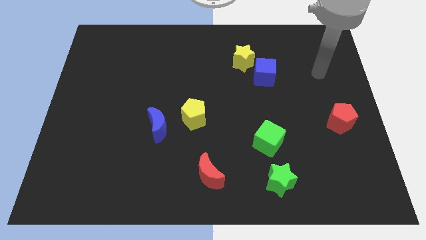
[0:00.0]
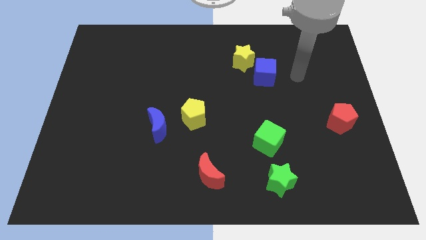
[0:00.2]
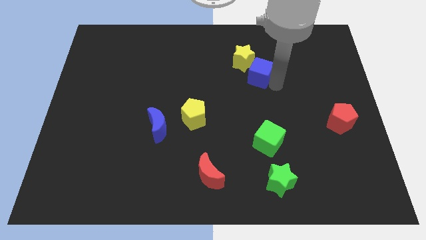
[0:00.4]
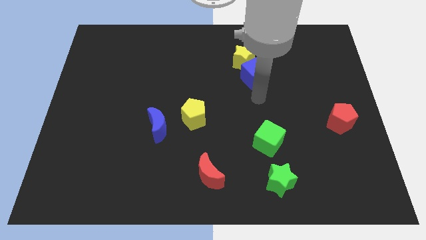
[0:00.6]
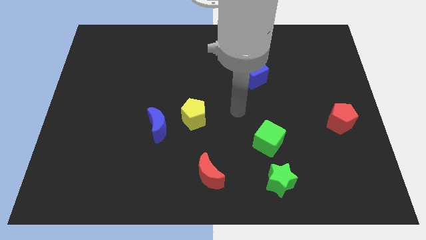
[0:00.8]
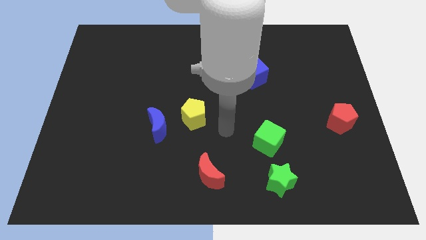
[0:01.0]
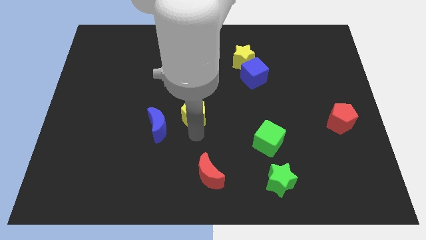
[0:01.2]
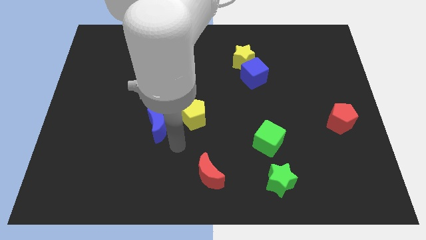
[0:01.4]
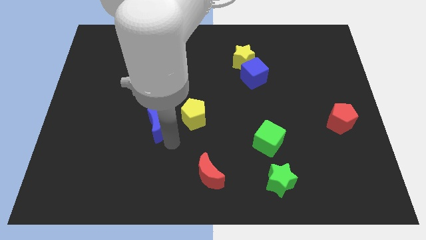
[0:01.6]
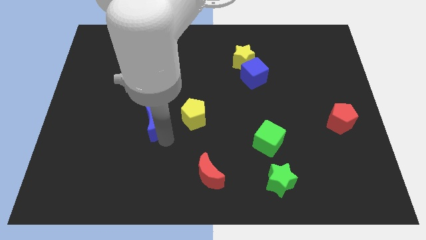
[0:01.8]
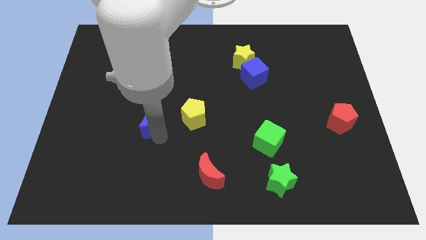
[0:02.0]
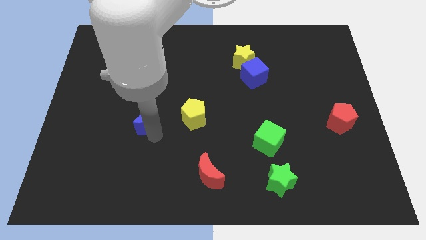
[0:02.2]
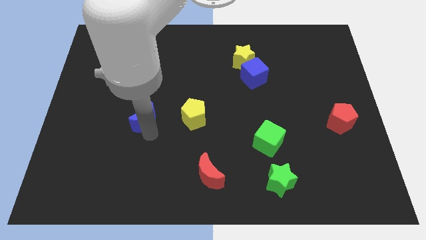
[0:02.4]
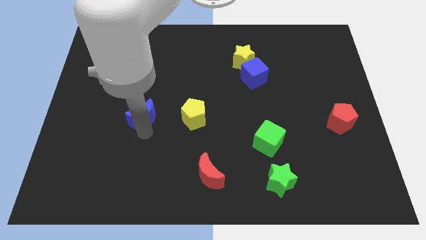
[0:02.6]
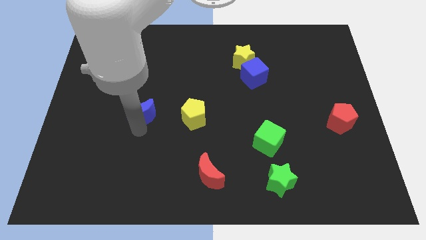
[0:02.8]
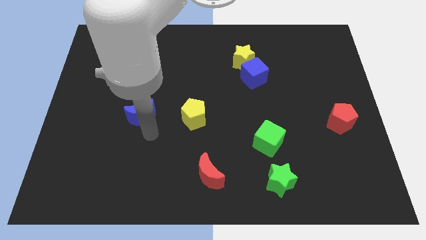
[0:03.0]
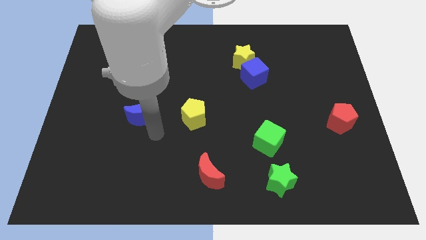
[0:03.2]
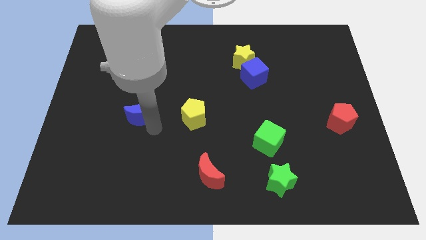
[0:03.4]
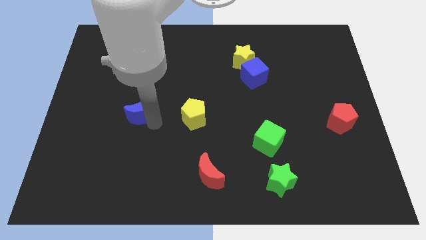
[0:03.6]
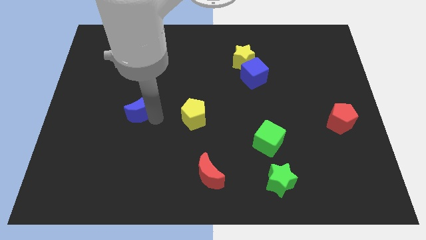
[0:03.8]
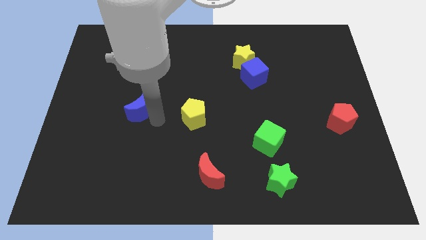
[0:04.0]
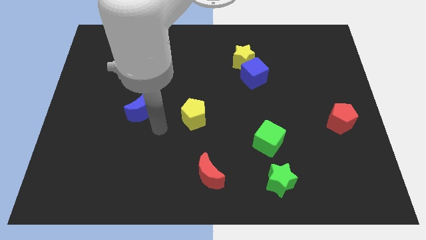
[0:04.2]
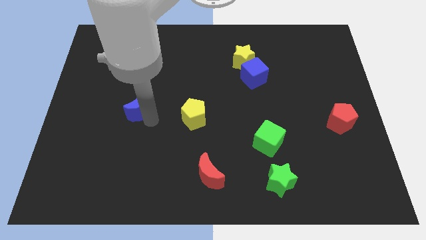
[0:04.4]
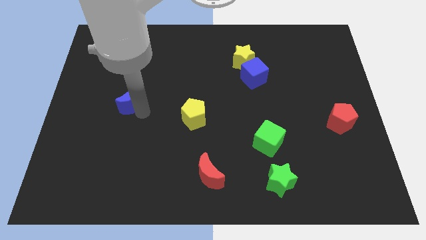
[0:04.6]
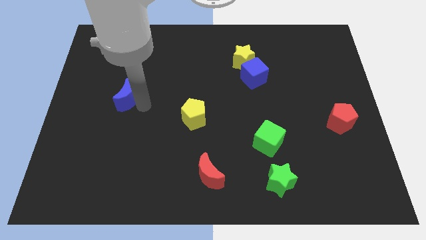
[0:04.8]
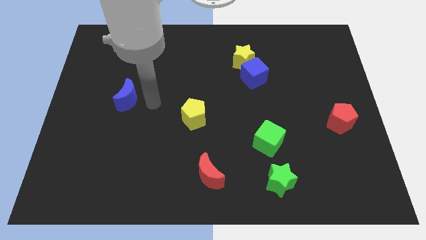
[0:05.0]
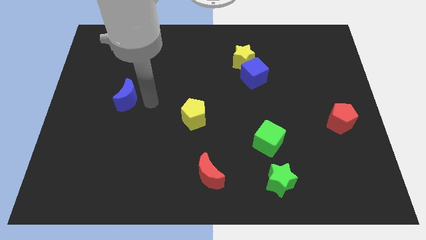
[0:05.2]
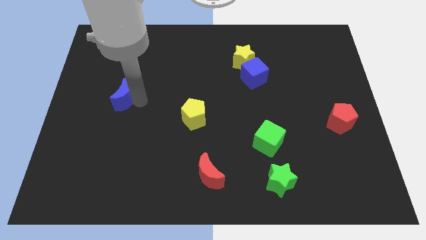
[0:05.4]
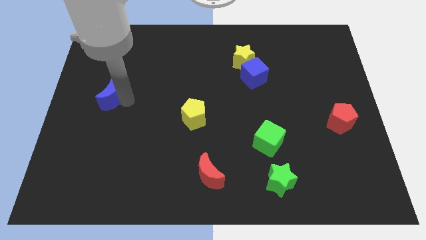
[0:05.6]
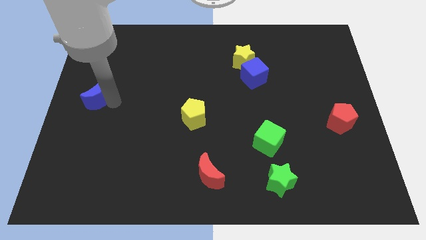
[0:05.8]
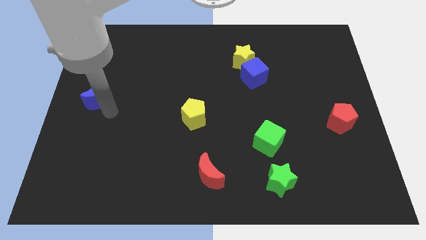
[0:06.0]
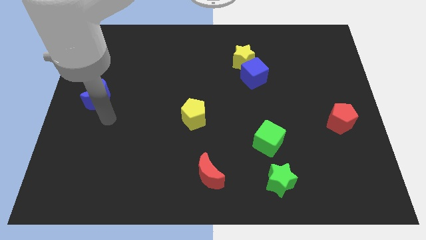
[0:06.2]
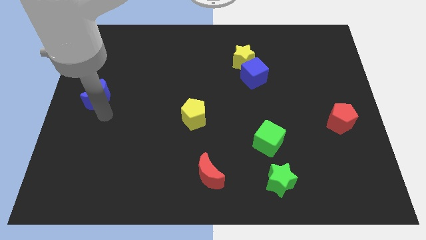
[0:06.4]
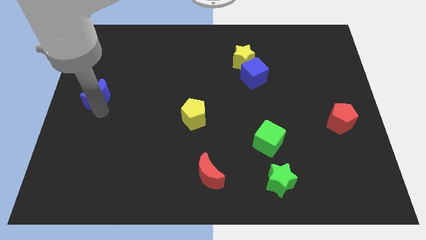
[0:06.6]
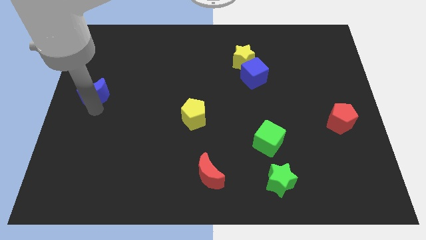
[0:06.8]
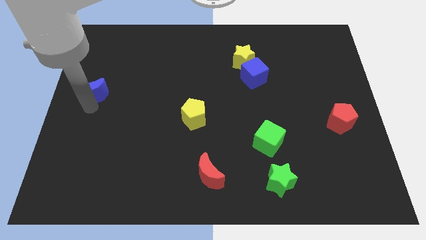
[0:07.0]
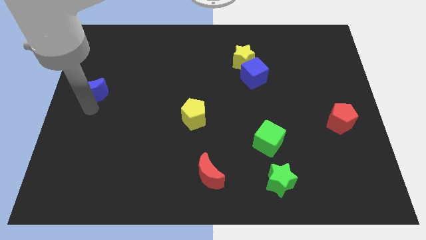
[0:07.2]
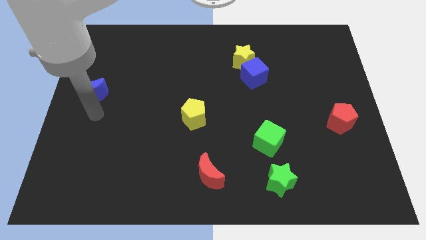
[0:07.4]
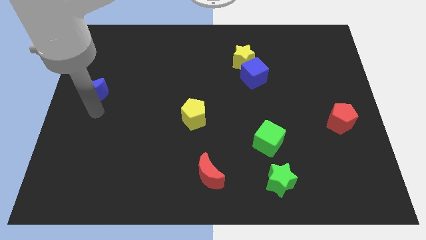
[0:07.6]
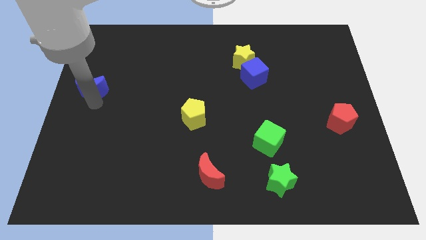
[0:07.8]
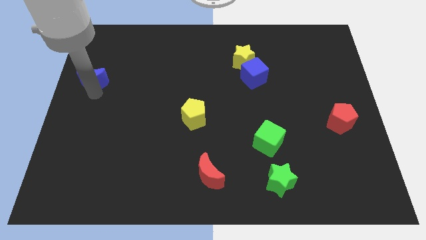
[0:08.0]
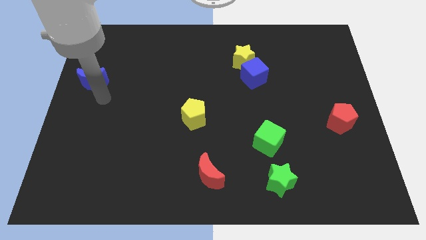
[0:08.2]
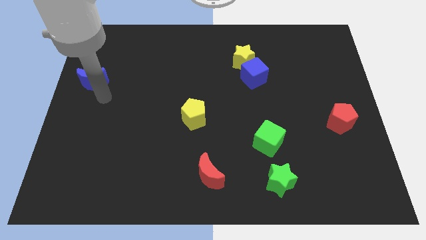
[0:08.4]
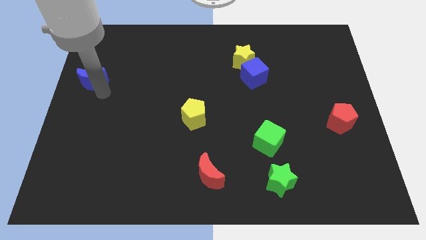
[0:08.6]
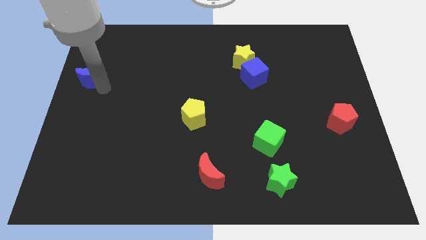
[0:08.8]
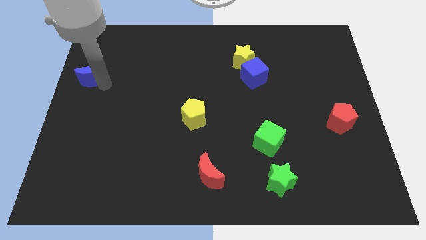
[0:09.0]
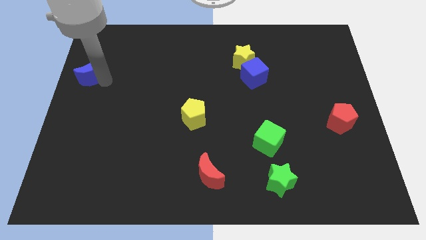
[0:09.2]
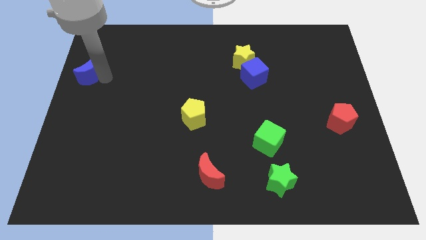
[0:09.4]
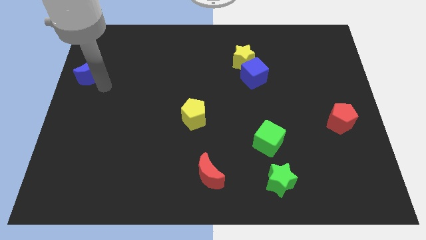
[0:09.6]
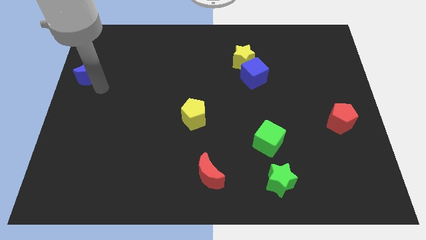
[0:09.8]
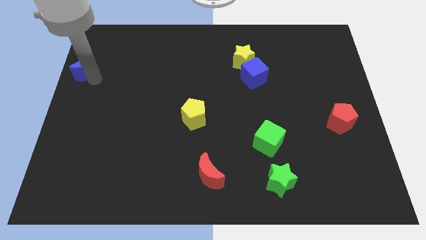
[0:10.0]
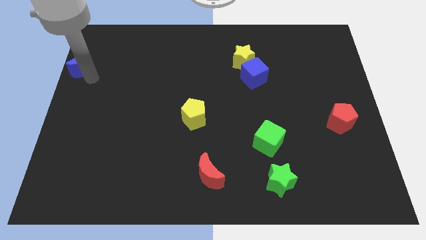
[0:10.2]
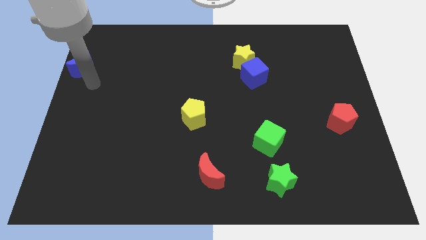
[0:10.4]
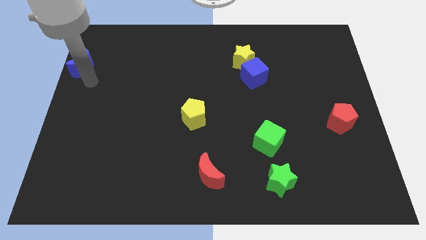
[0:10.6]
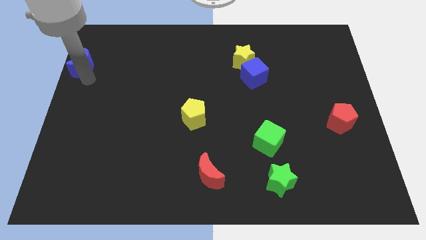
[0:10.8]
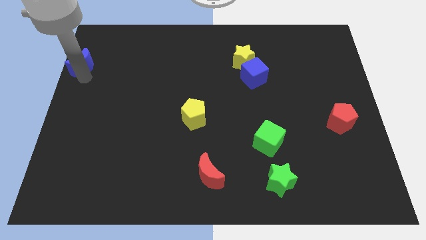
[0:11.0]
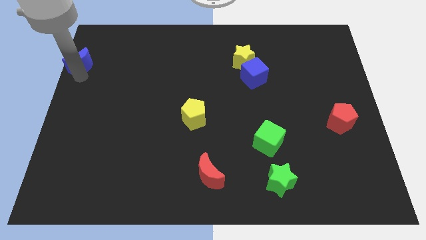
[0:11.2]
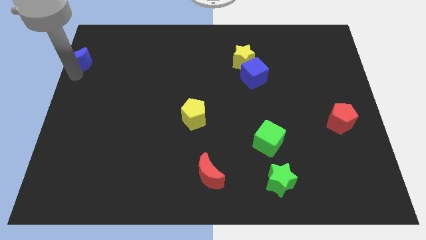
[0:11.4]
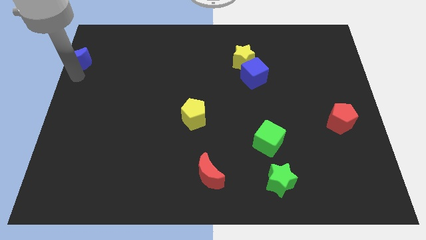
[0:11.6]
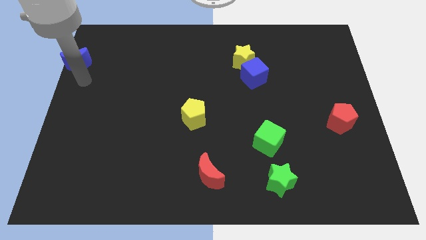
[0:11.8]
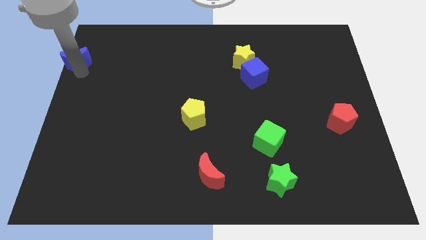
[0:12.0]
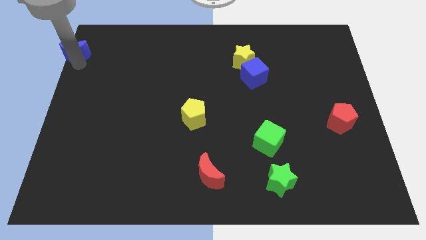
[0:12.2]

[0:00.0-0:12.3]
push the blue moon to the top left
